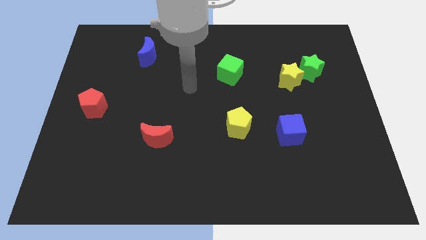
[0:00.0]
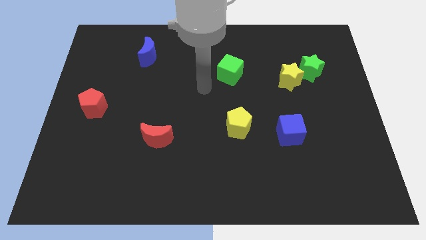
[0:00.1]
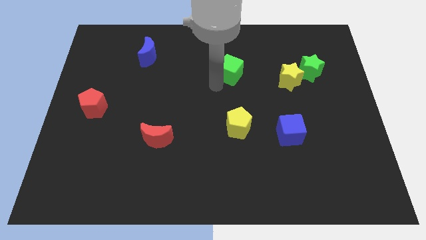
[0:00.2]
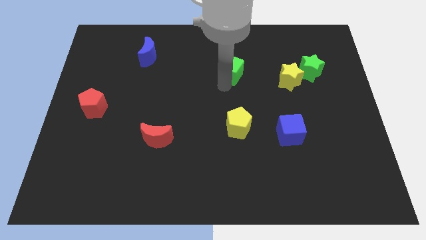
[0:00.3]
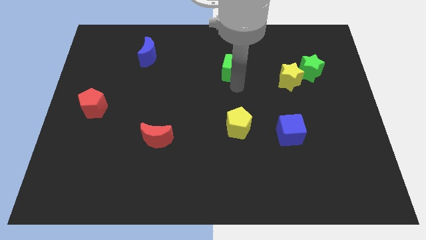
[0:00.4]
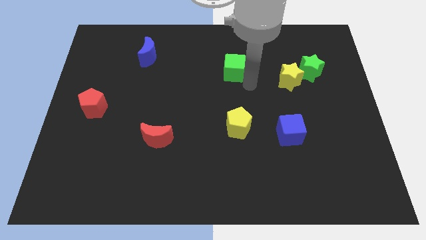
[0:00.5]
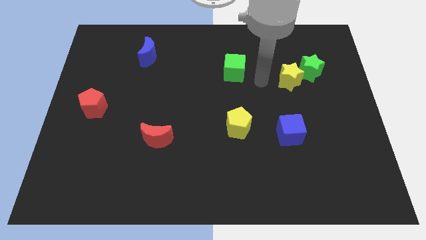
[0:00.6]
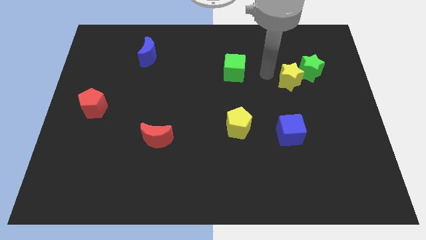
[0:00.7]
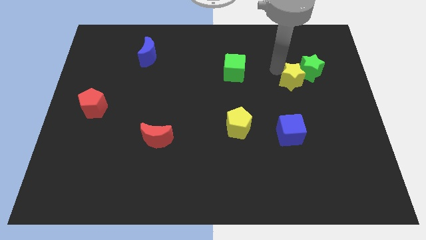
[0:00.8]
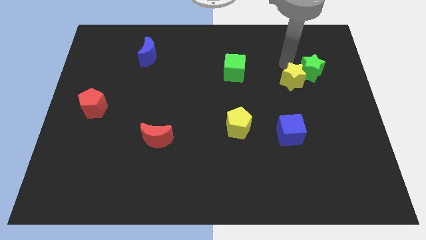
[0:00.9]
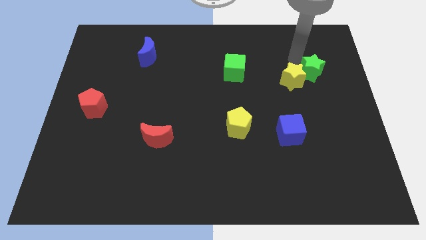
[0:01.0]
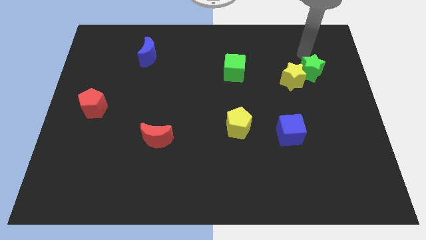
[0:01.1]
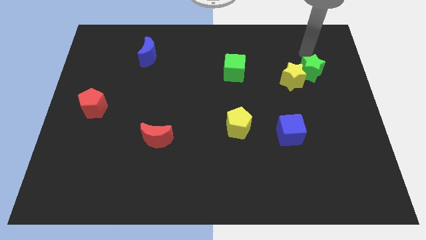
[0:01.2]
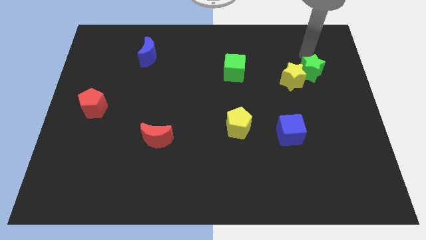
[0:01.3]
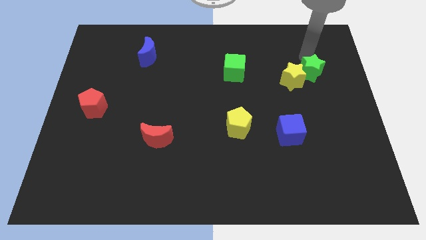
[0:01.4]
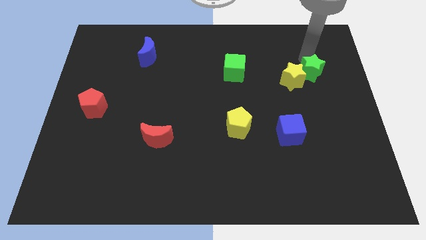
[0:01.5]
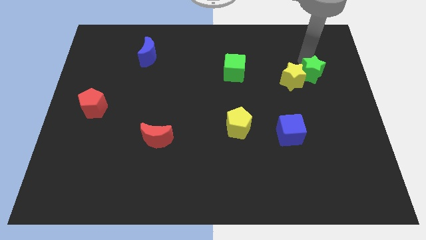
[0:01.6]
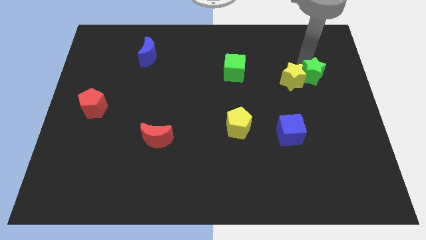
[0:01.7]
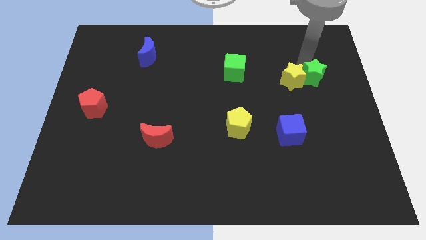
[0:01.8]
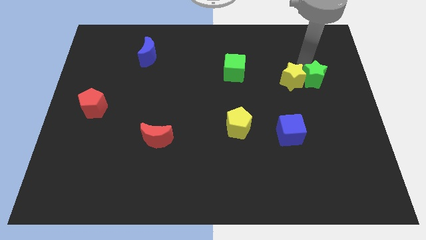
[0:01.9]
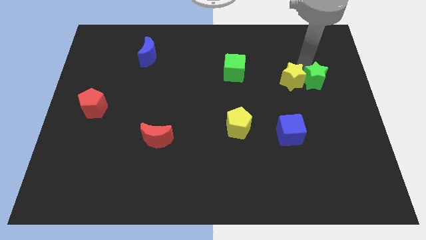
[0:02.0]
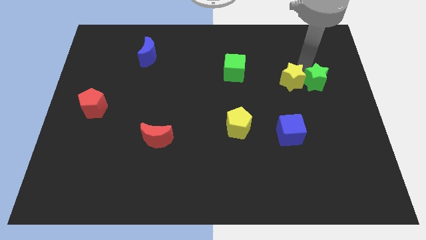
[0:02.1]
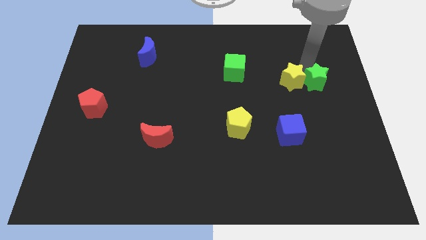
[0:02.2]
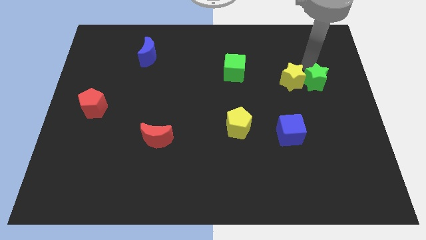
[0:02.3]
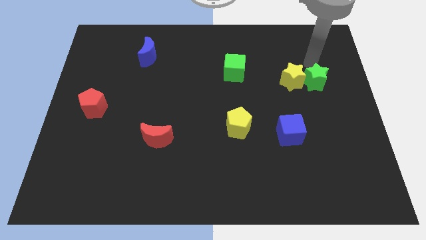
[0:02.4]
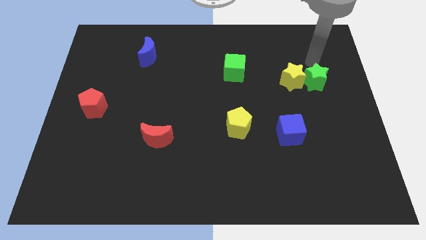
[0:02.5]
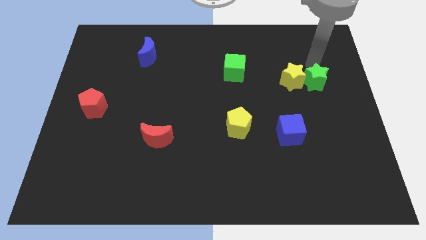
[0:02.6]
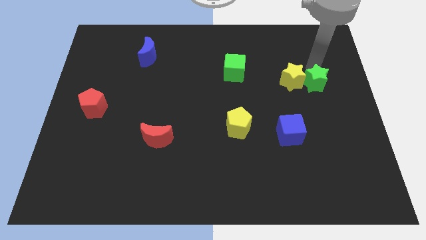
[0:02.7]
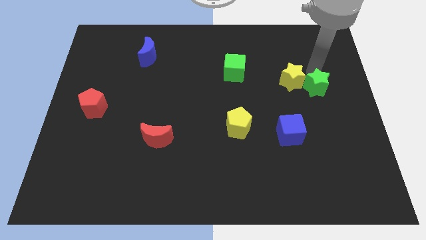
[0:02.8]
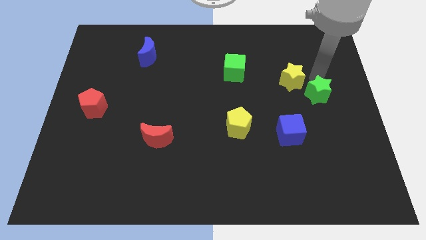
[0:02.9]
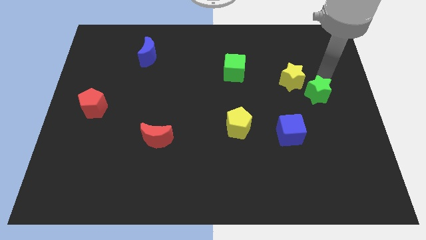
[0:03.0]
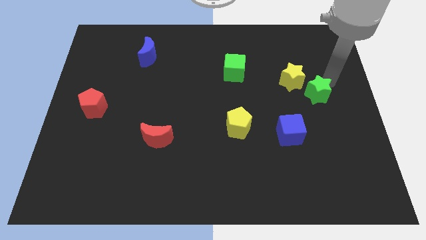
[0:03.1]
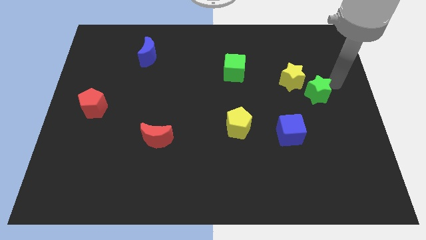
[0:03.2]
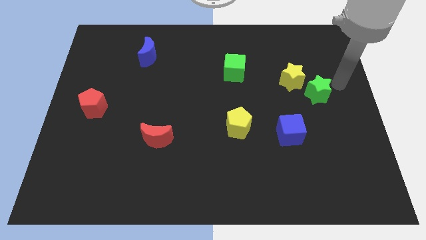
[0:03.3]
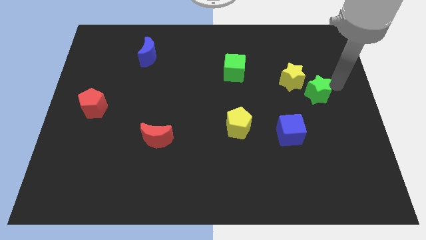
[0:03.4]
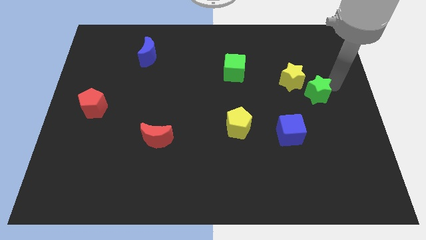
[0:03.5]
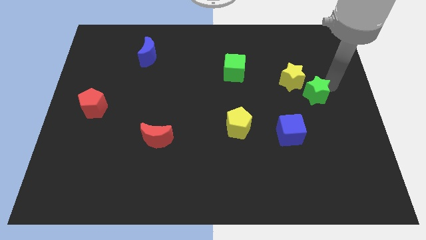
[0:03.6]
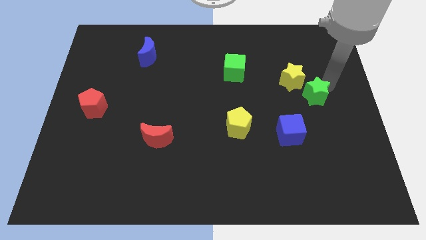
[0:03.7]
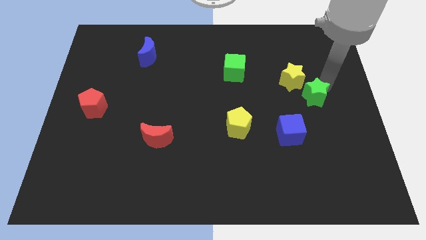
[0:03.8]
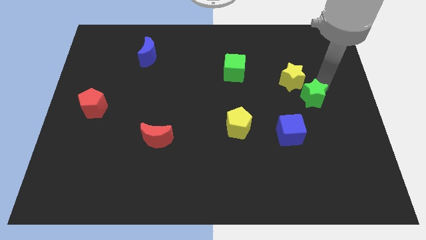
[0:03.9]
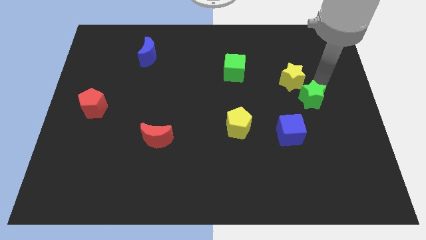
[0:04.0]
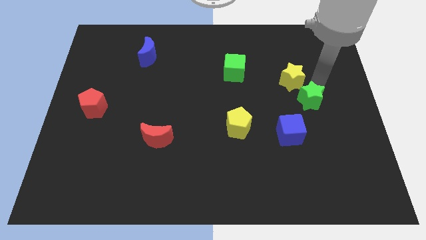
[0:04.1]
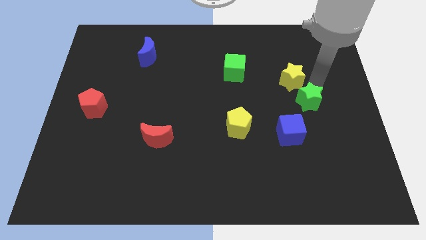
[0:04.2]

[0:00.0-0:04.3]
push the green star a little downwards and left

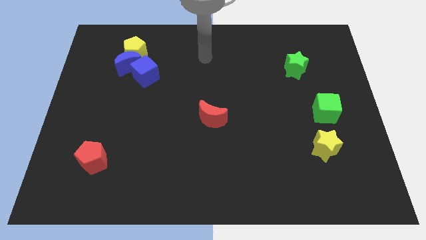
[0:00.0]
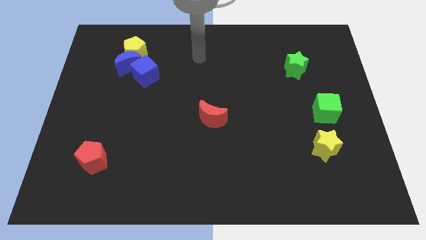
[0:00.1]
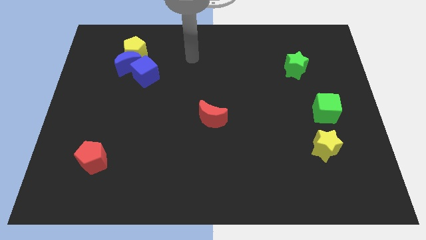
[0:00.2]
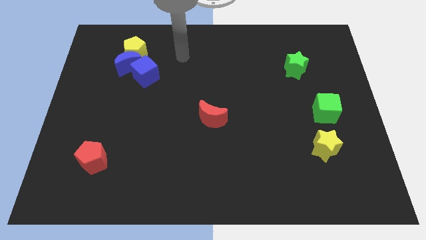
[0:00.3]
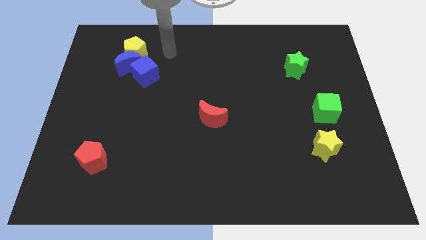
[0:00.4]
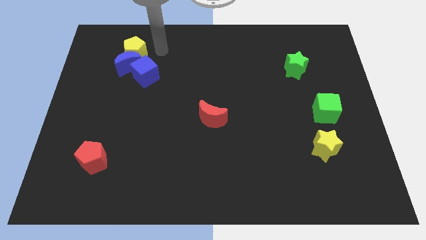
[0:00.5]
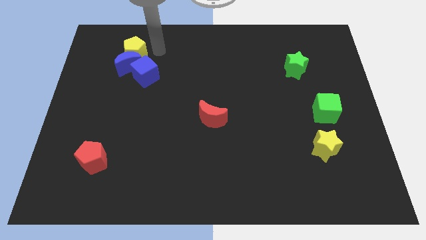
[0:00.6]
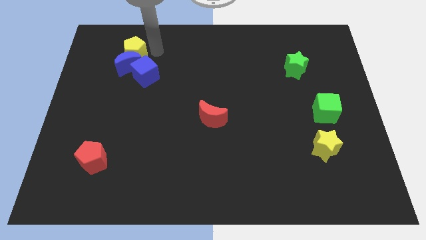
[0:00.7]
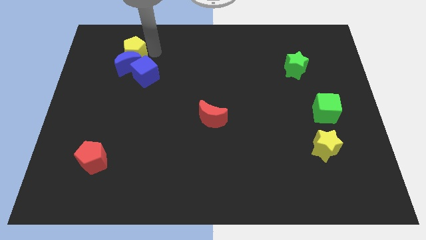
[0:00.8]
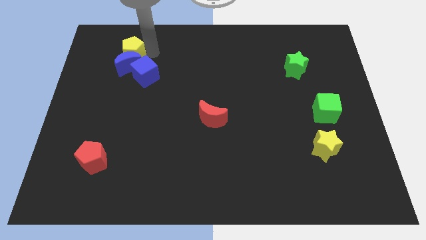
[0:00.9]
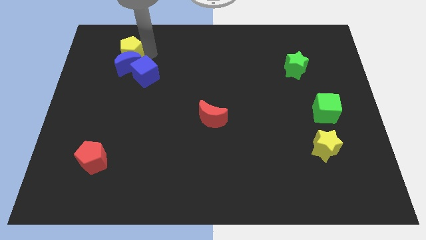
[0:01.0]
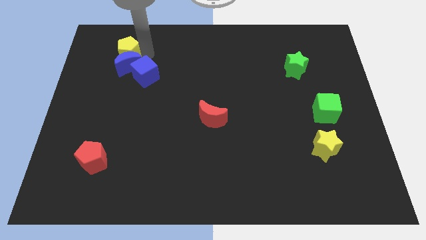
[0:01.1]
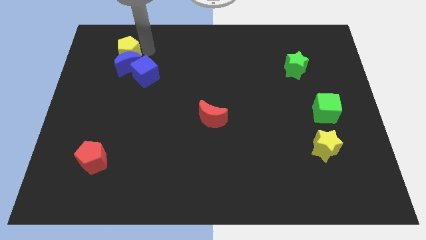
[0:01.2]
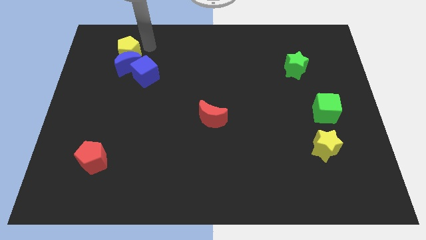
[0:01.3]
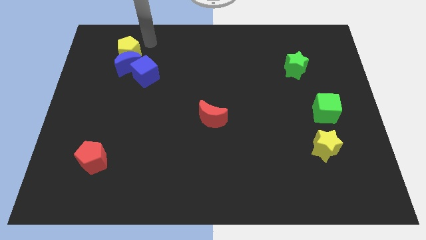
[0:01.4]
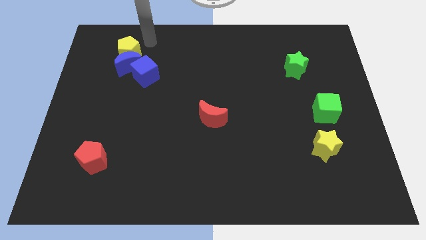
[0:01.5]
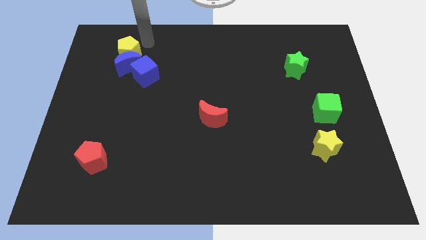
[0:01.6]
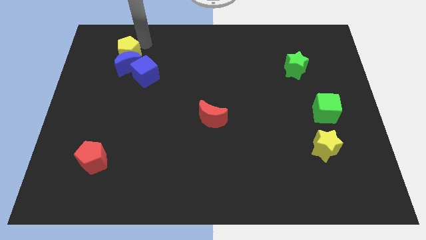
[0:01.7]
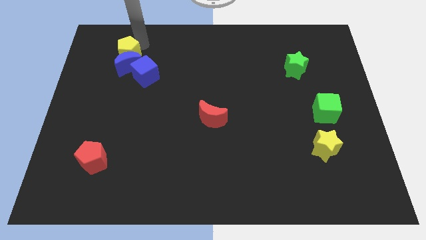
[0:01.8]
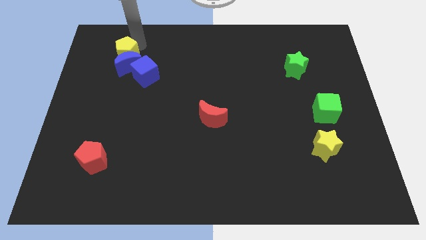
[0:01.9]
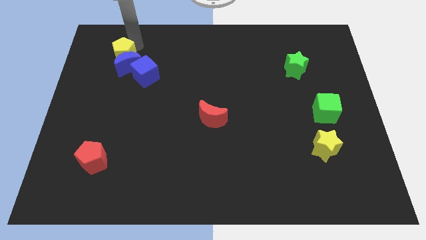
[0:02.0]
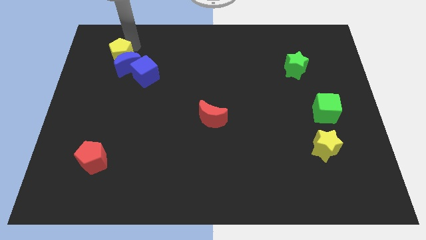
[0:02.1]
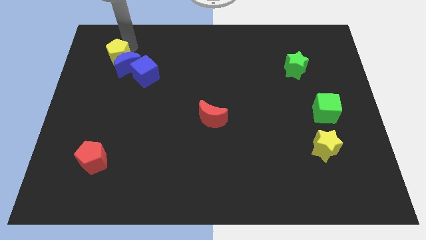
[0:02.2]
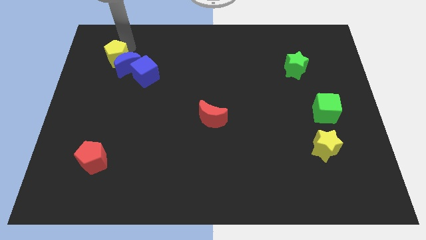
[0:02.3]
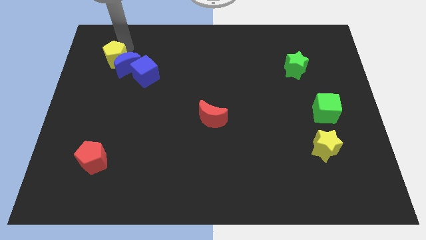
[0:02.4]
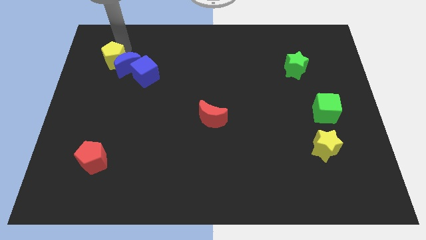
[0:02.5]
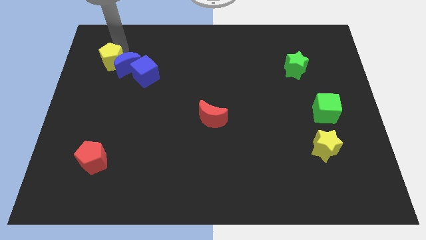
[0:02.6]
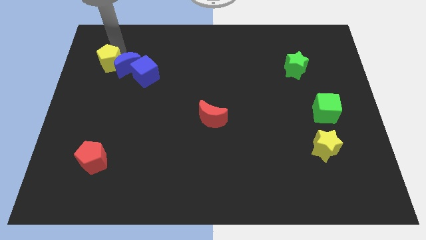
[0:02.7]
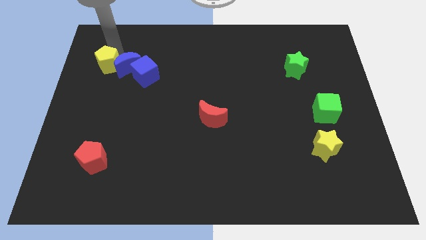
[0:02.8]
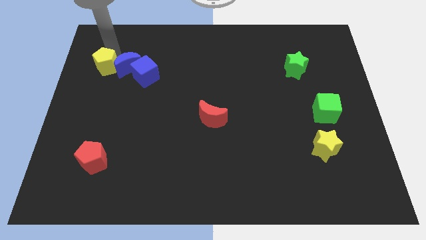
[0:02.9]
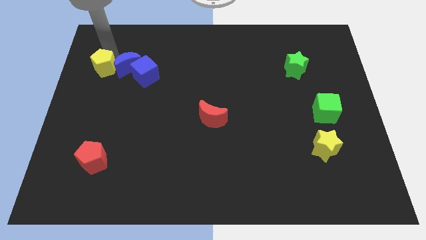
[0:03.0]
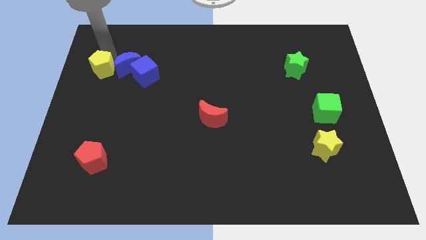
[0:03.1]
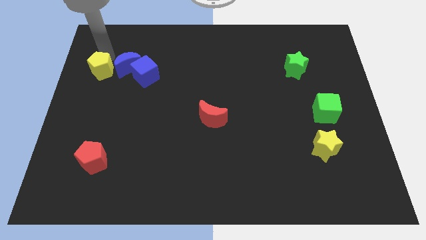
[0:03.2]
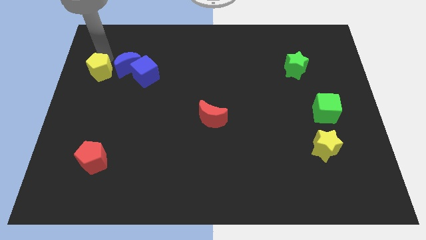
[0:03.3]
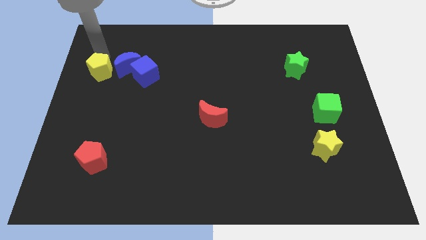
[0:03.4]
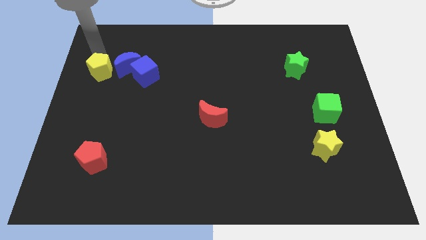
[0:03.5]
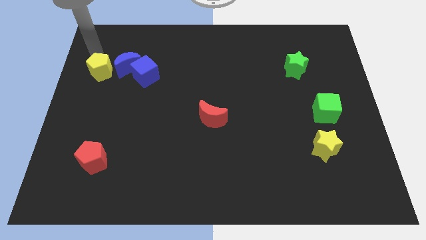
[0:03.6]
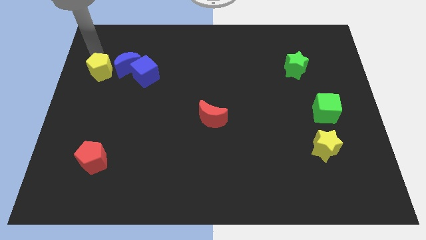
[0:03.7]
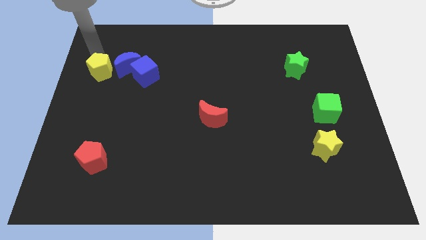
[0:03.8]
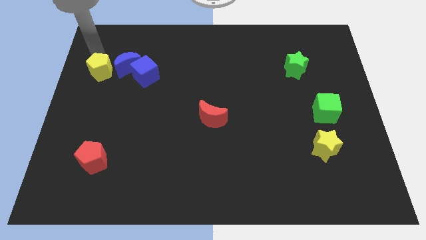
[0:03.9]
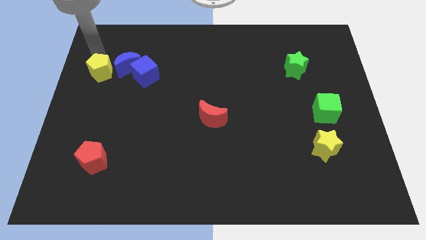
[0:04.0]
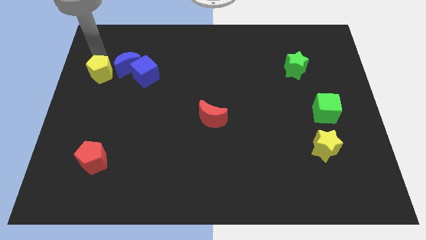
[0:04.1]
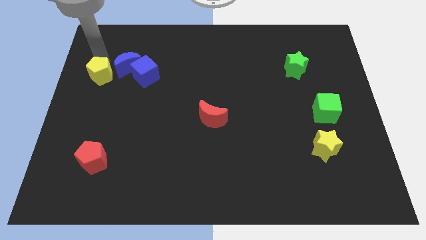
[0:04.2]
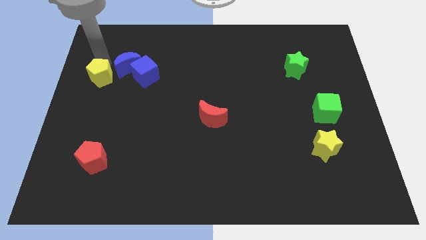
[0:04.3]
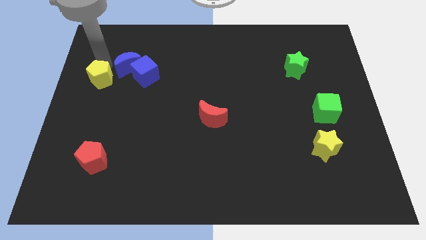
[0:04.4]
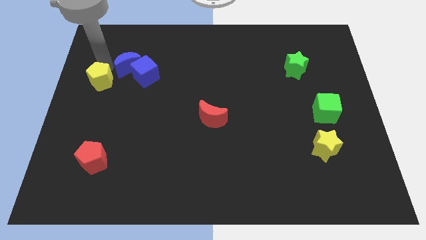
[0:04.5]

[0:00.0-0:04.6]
move the yellow pentagon down a bit
